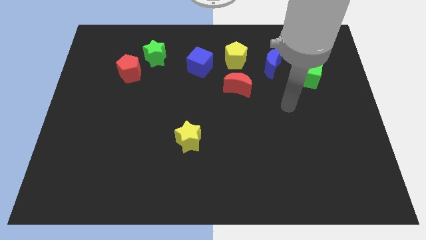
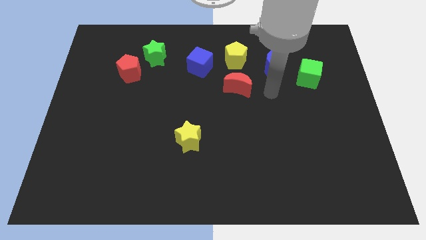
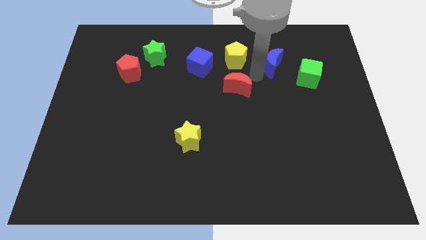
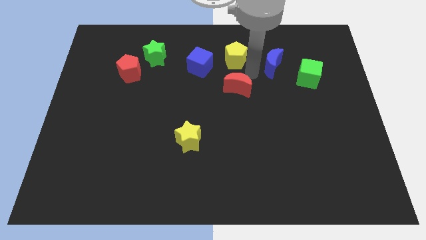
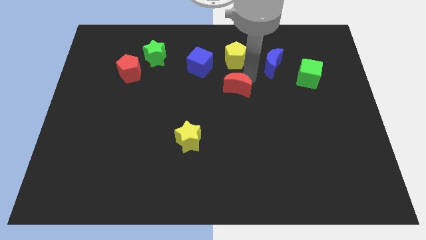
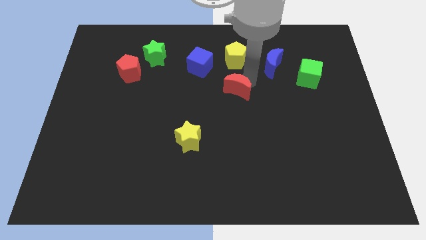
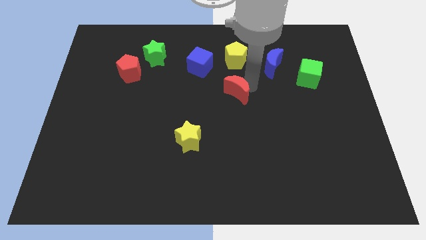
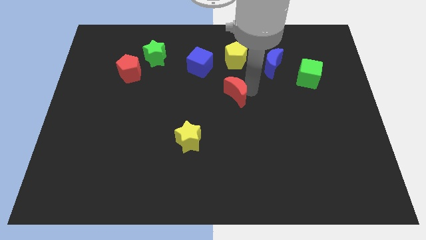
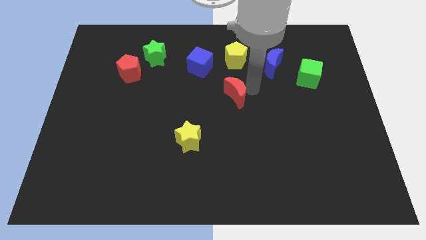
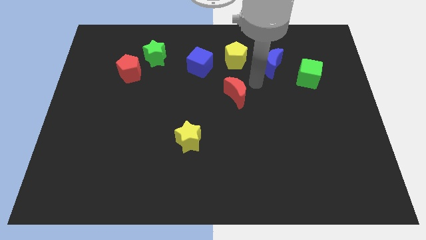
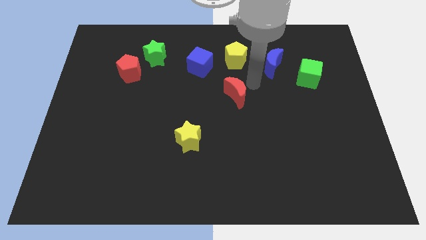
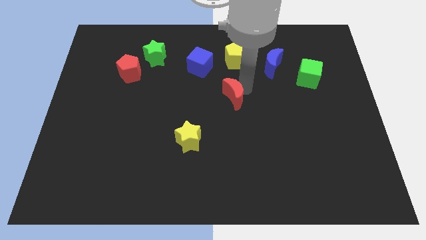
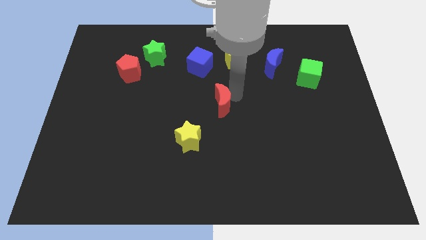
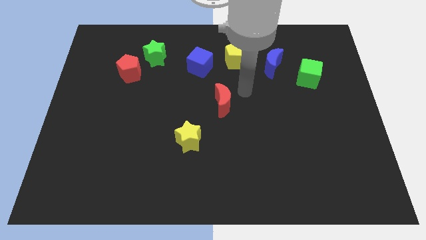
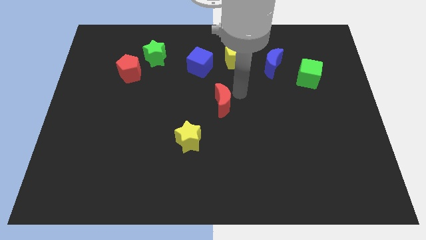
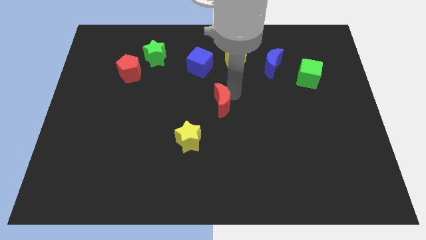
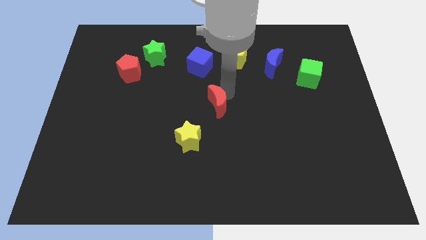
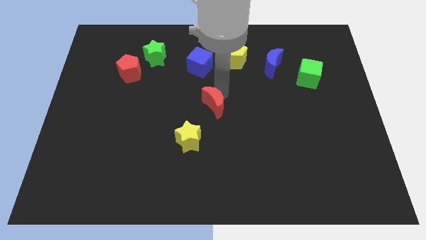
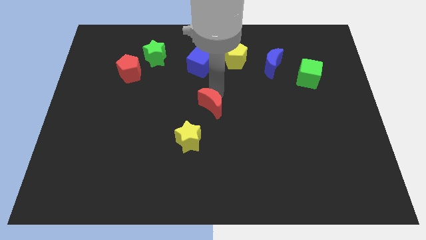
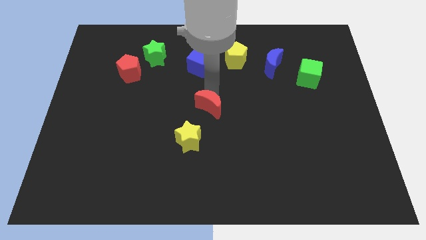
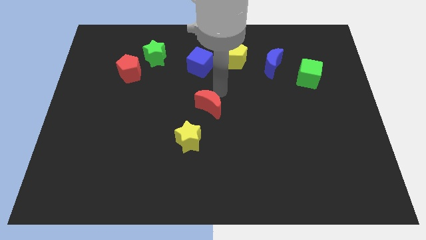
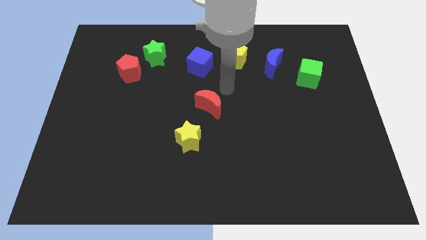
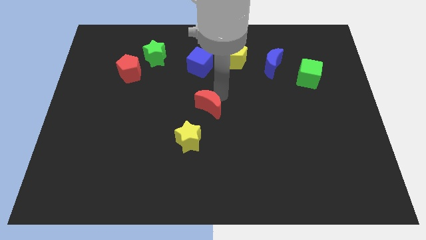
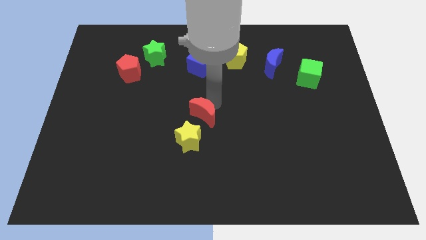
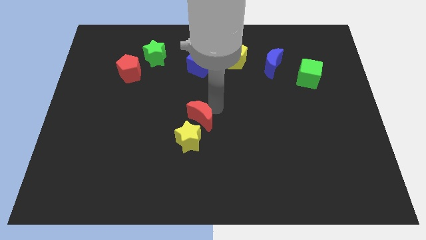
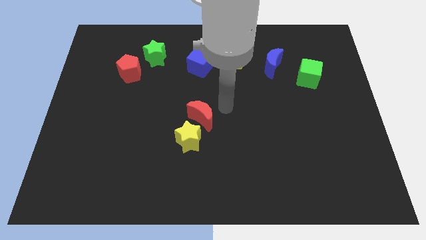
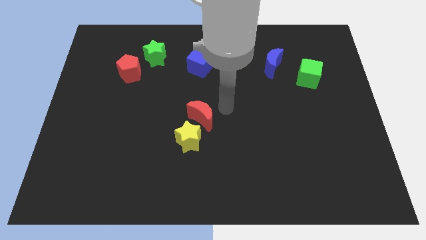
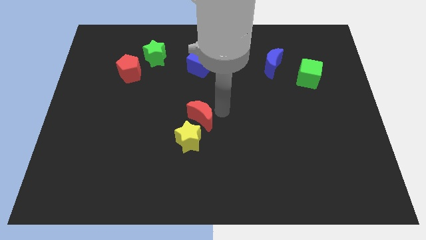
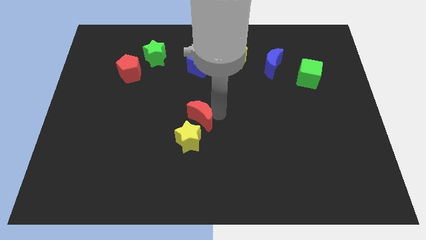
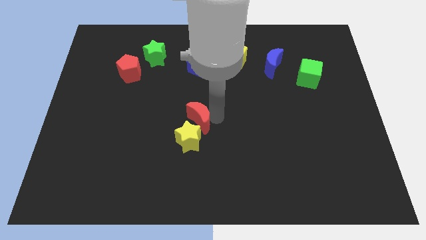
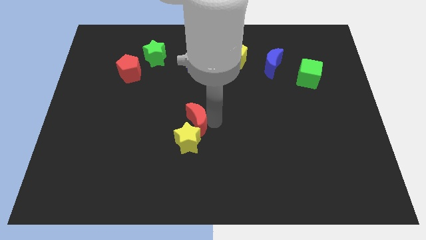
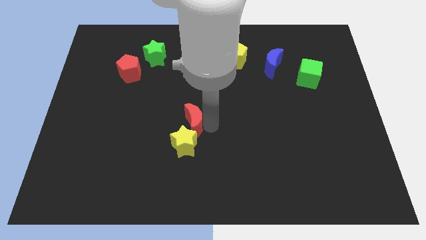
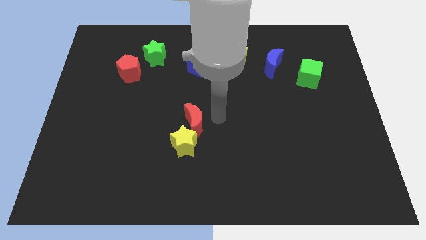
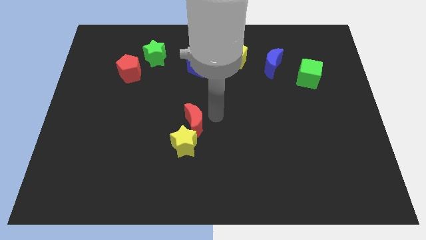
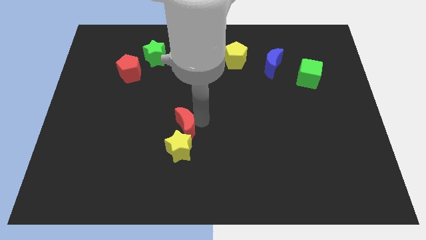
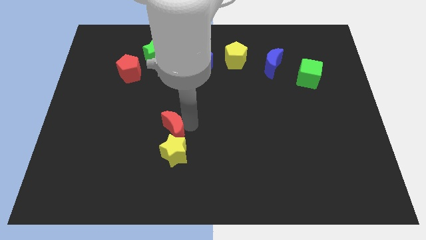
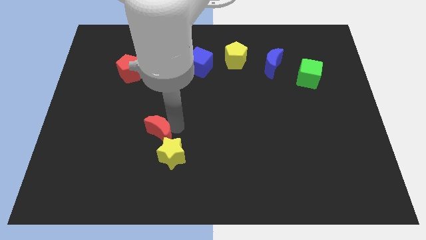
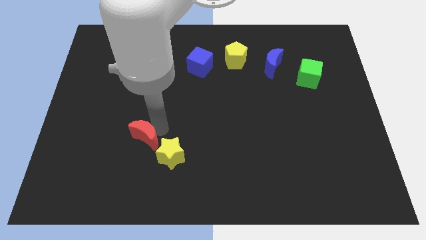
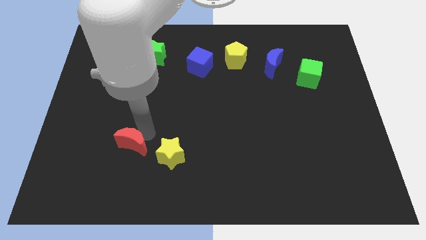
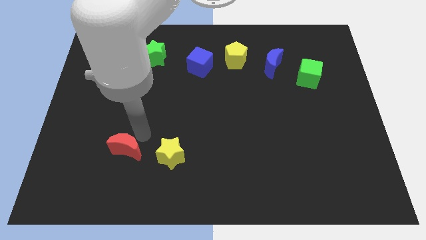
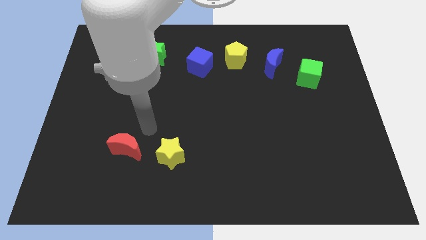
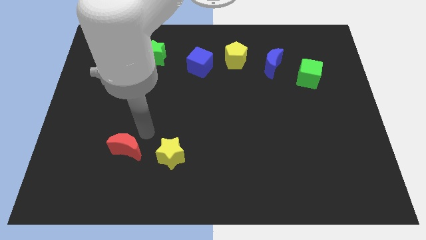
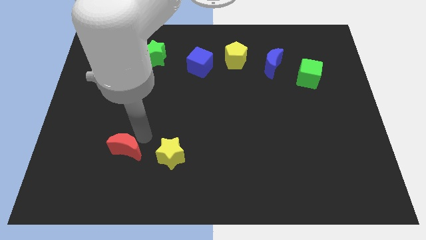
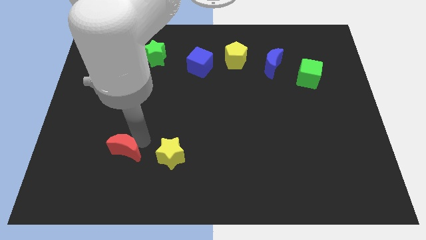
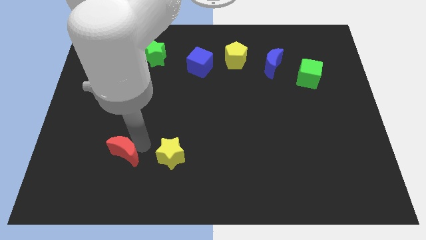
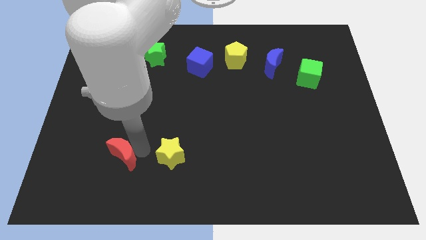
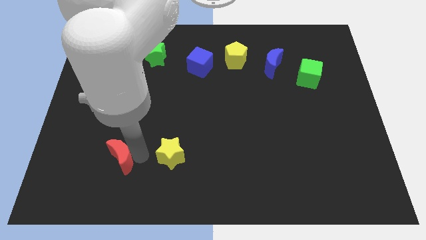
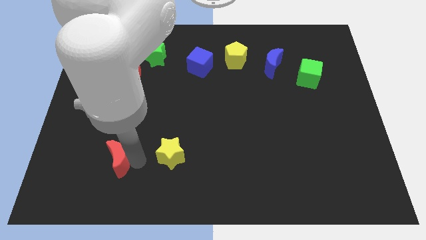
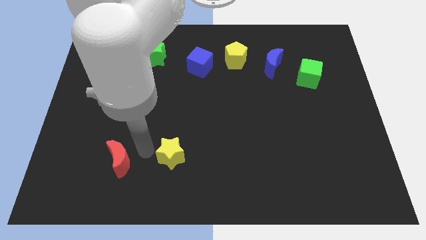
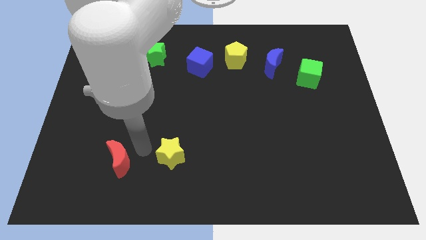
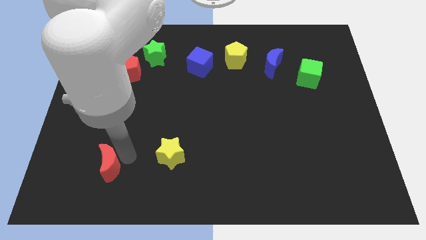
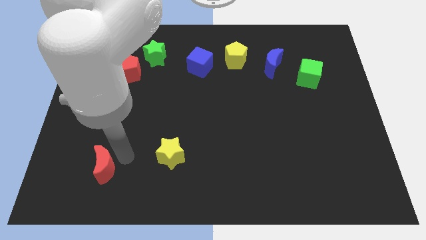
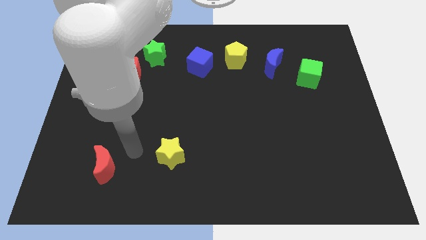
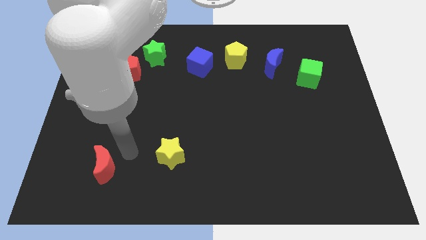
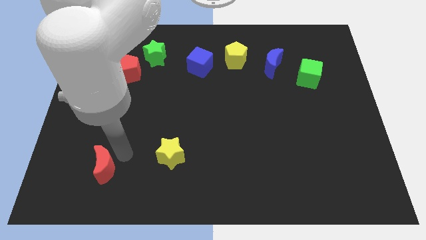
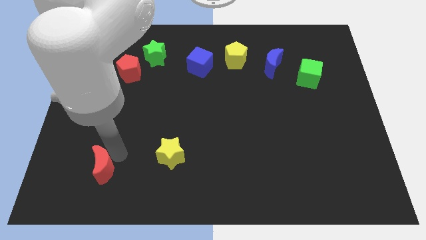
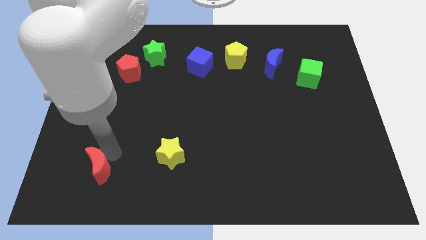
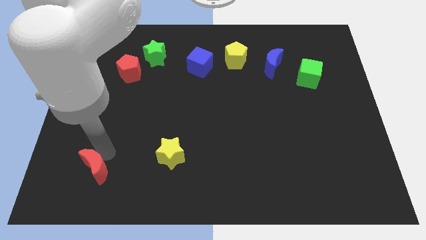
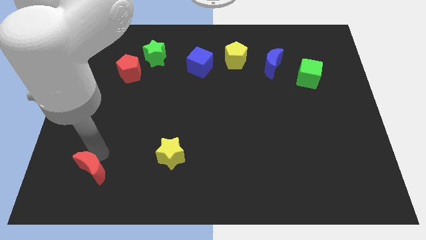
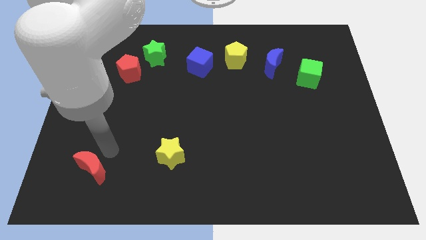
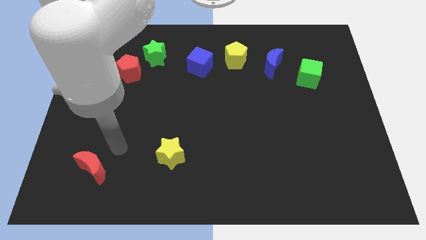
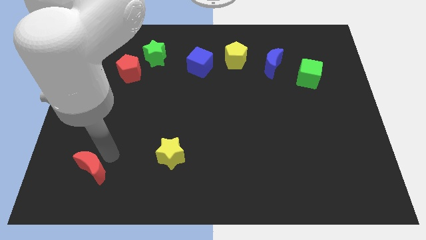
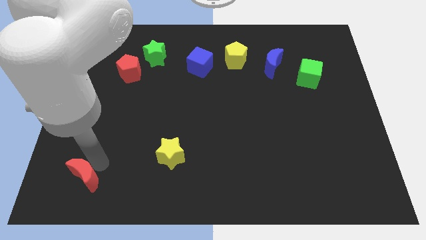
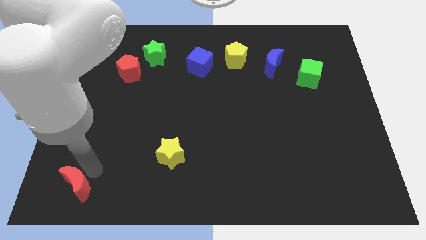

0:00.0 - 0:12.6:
put the red moon to the bottom left corner

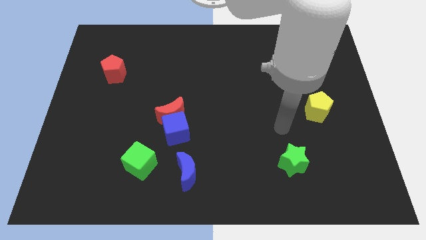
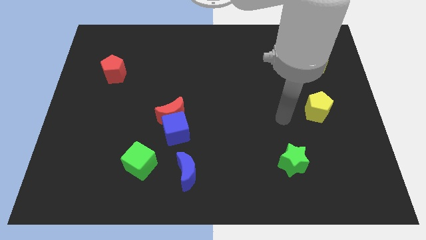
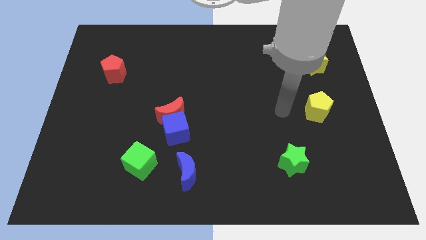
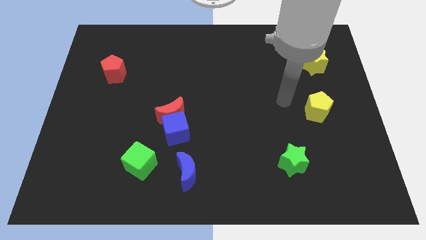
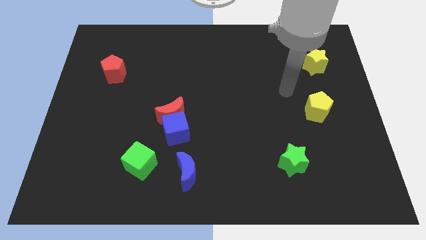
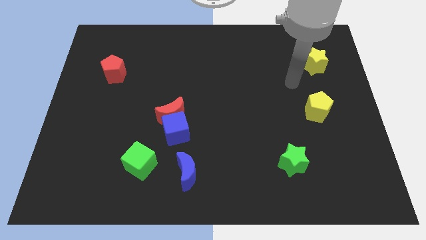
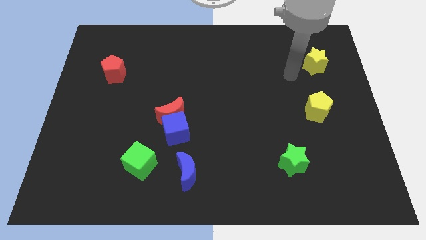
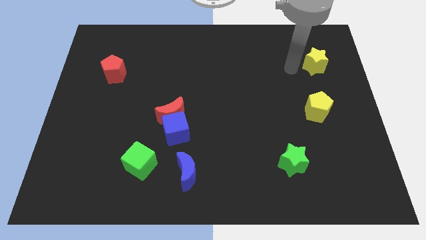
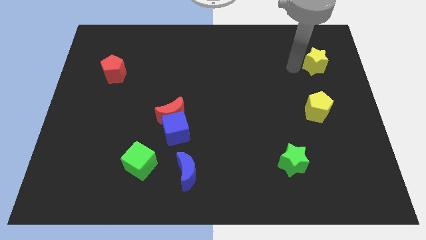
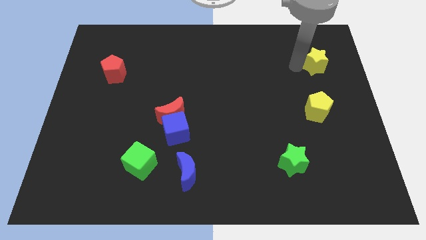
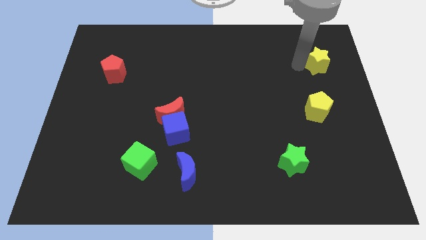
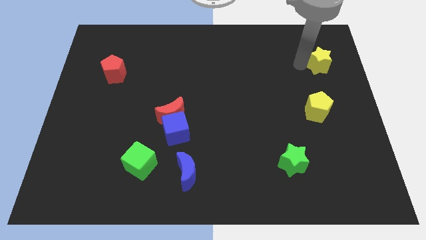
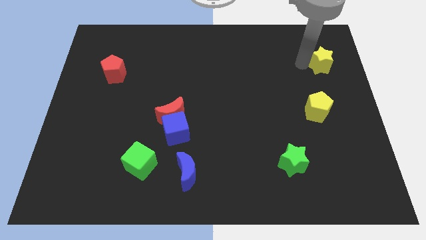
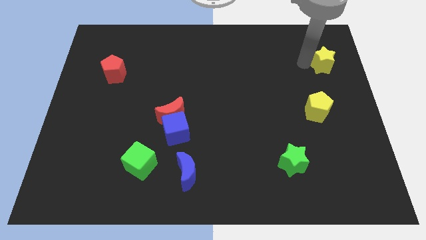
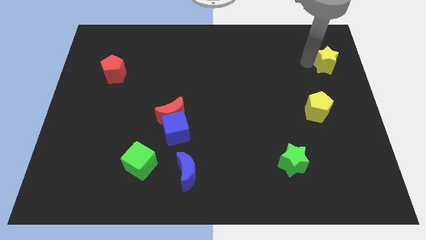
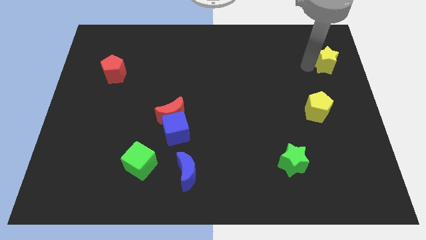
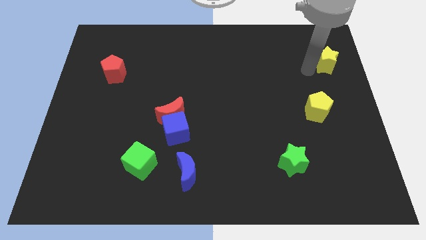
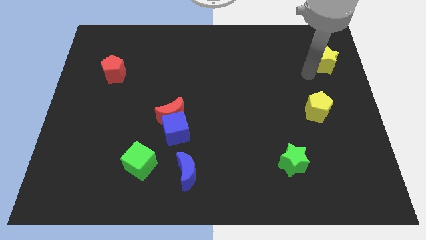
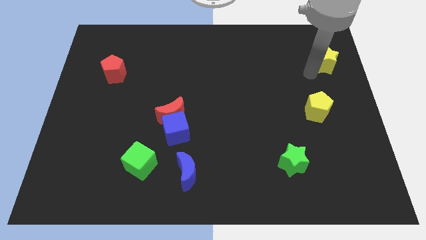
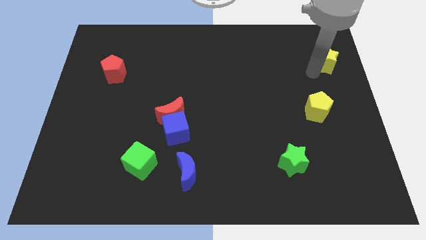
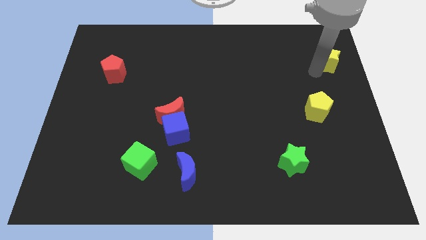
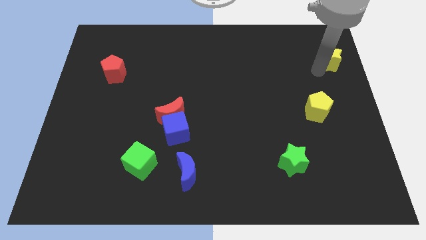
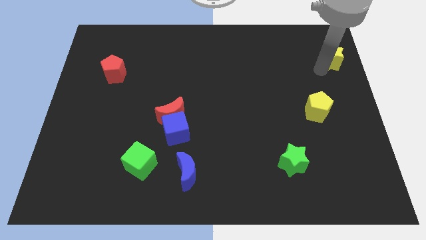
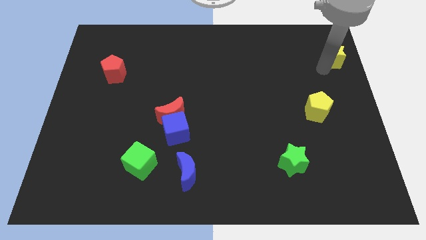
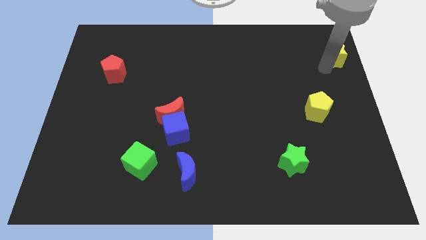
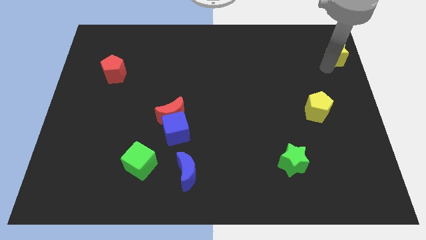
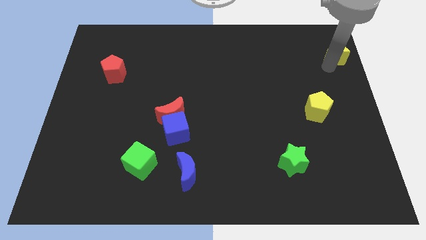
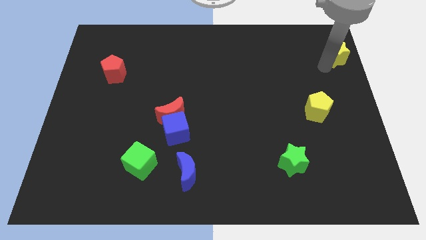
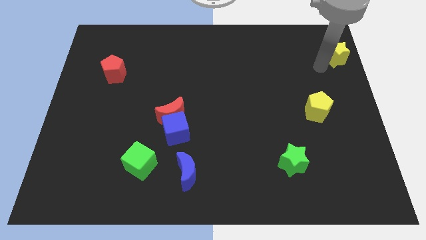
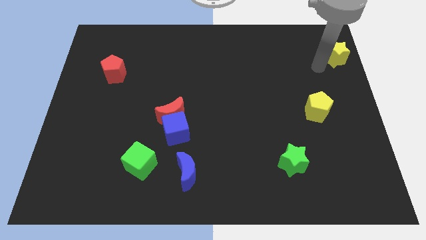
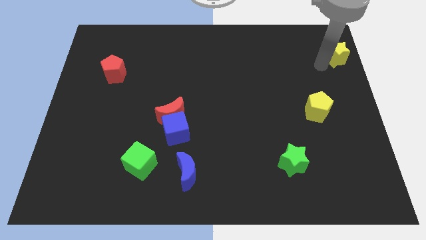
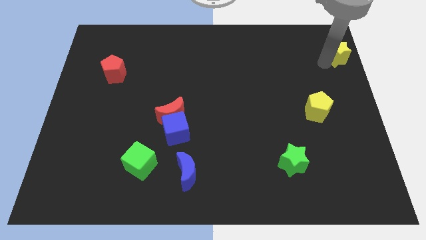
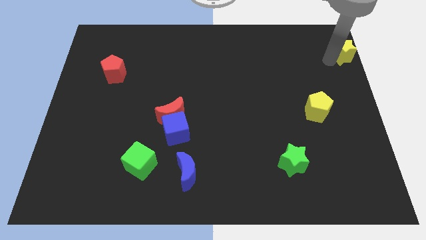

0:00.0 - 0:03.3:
move the yellow star to the top right
